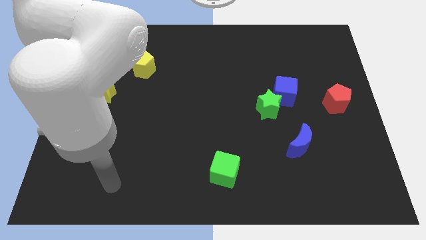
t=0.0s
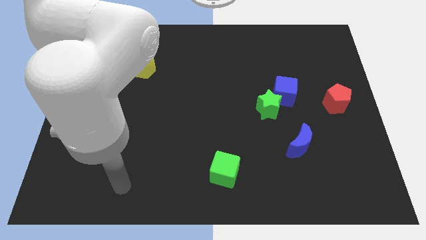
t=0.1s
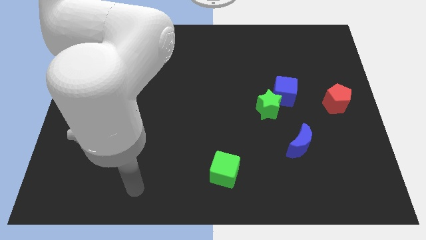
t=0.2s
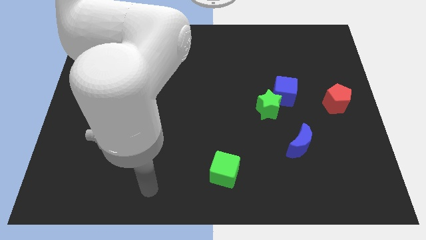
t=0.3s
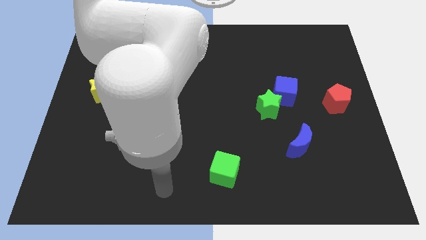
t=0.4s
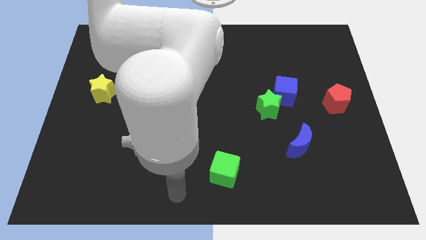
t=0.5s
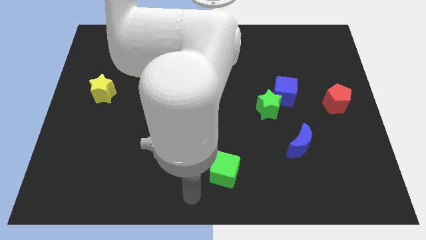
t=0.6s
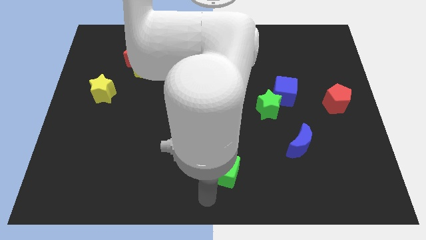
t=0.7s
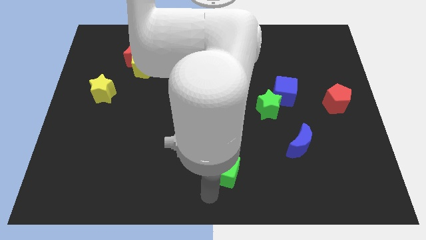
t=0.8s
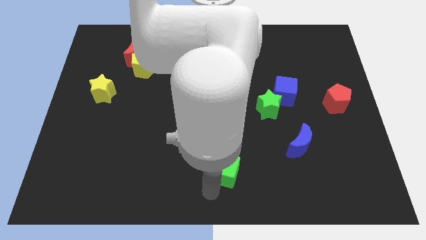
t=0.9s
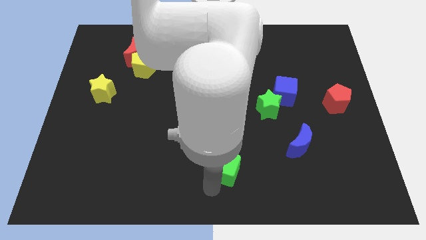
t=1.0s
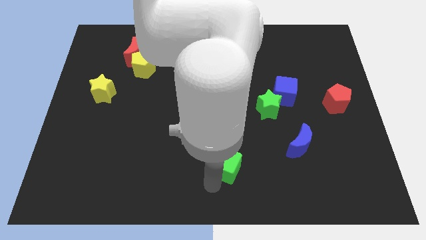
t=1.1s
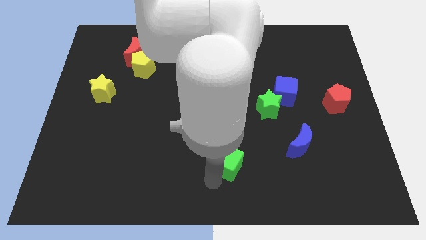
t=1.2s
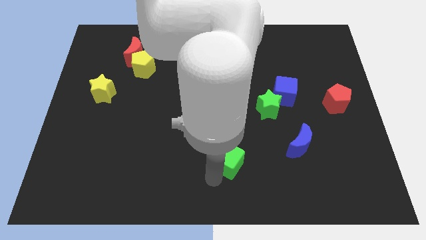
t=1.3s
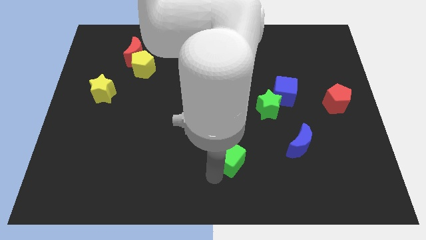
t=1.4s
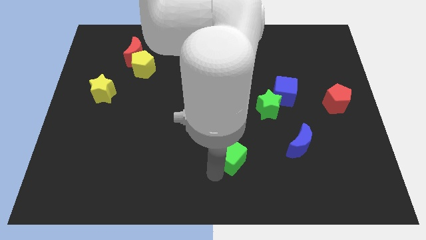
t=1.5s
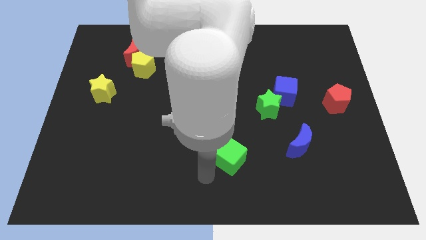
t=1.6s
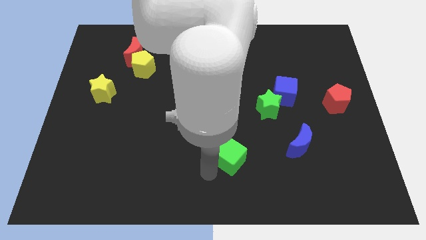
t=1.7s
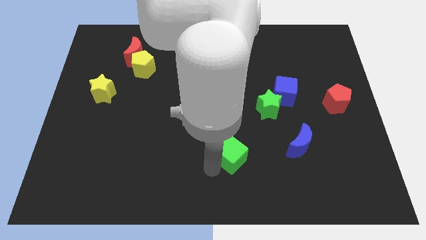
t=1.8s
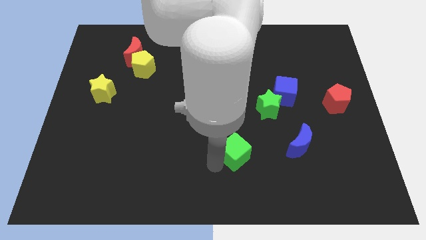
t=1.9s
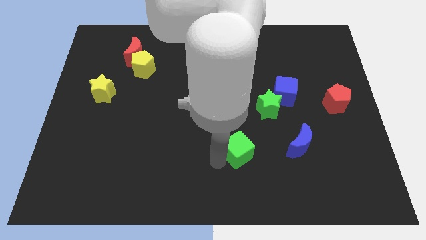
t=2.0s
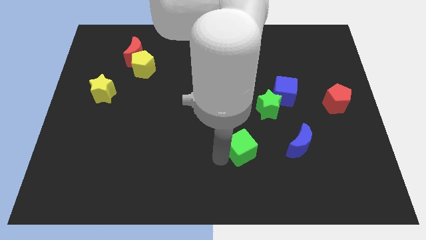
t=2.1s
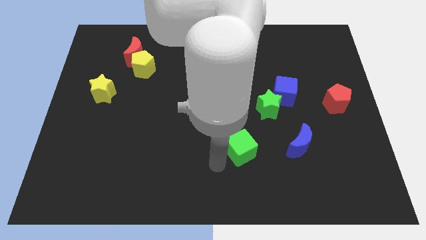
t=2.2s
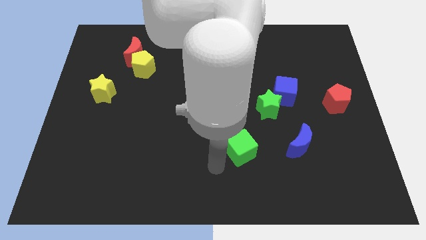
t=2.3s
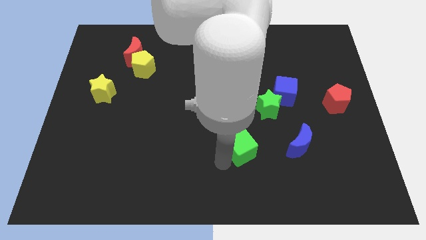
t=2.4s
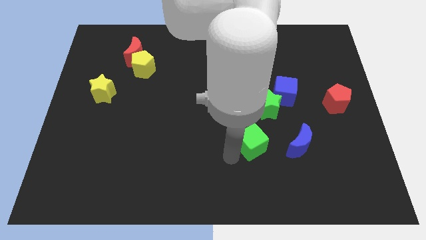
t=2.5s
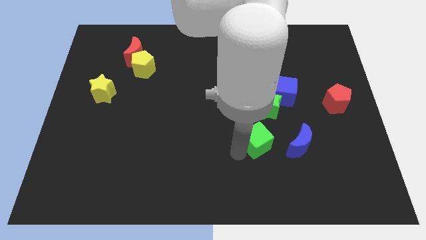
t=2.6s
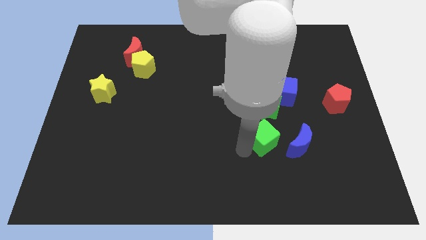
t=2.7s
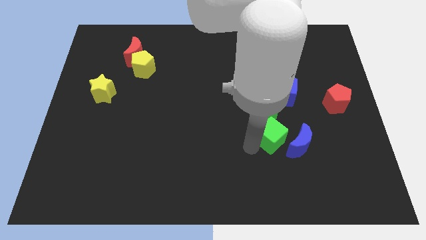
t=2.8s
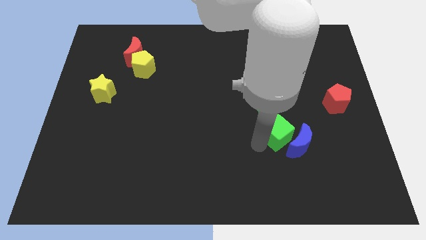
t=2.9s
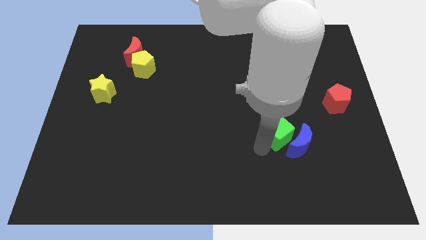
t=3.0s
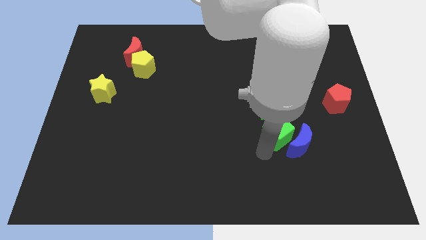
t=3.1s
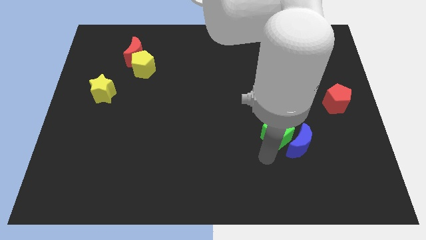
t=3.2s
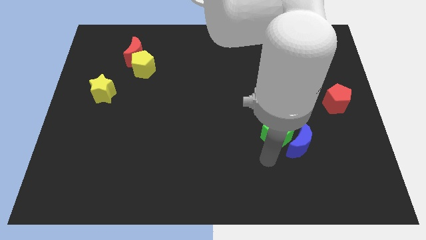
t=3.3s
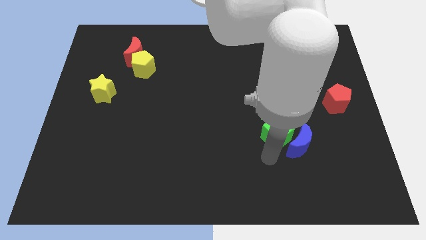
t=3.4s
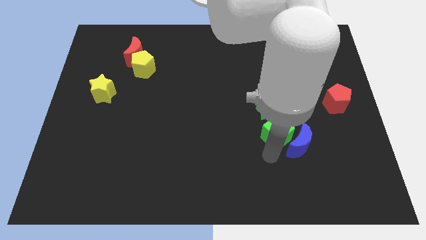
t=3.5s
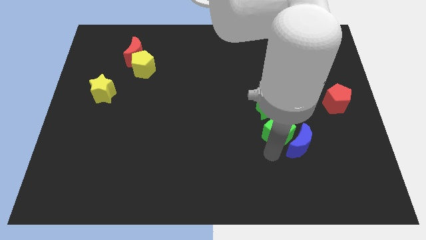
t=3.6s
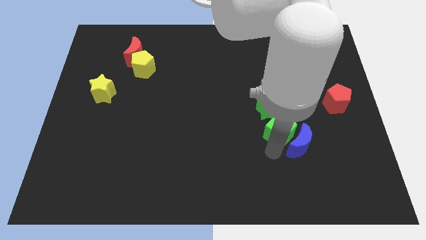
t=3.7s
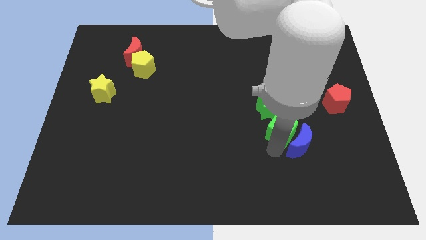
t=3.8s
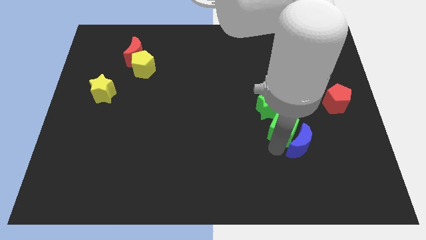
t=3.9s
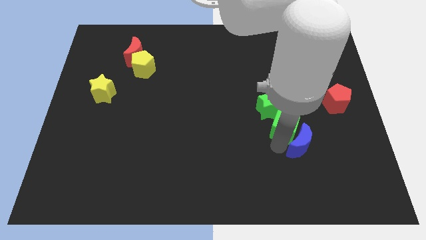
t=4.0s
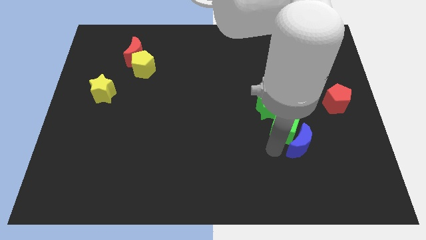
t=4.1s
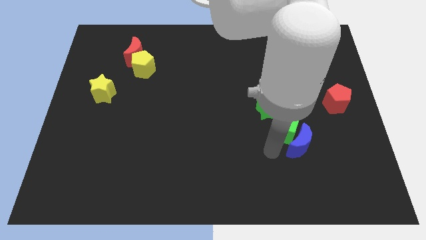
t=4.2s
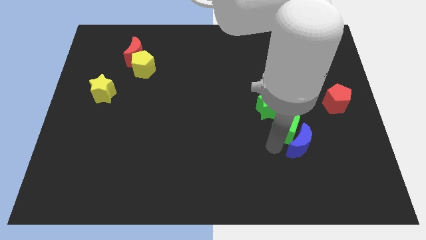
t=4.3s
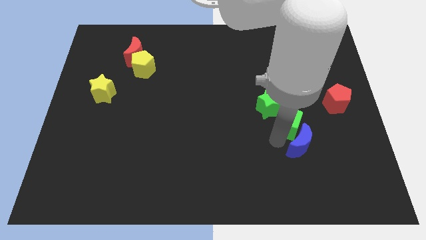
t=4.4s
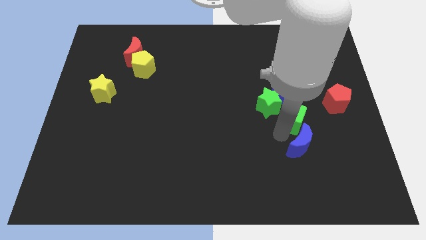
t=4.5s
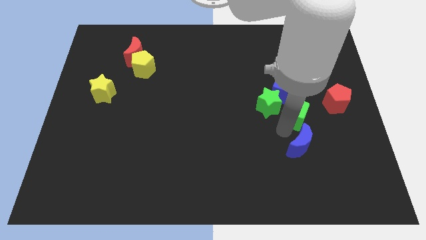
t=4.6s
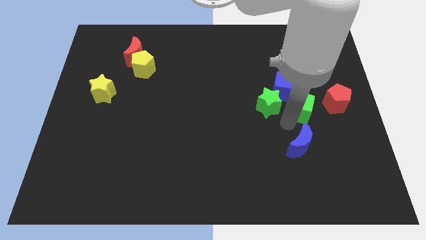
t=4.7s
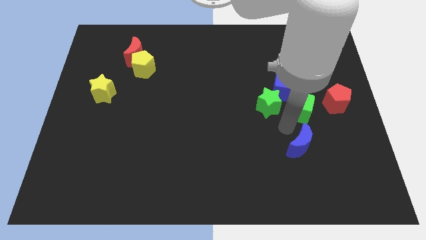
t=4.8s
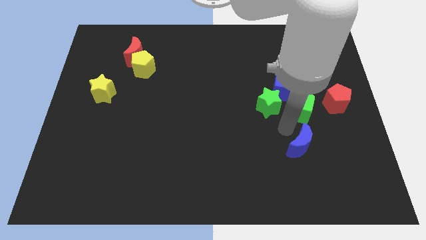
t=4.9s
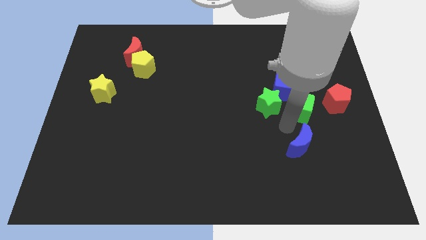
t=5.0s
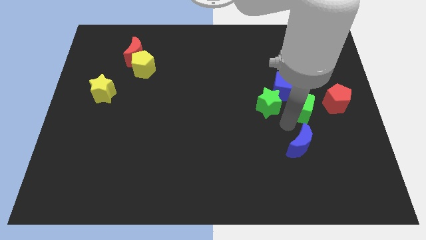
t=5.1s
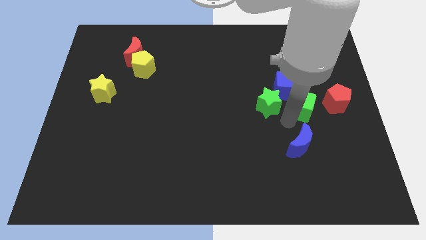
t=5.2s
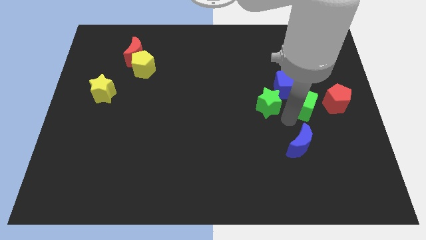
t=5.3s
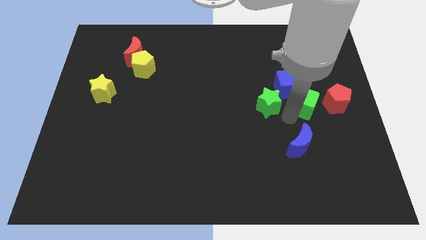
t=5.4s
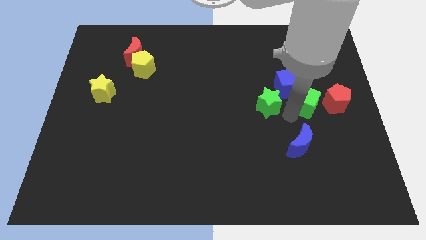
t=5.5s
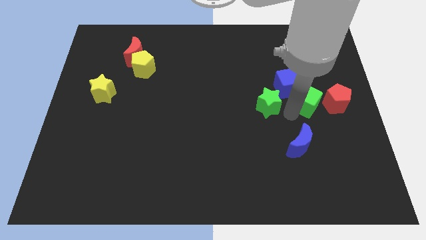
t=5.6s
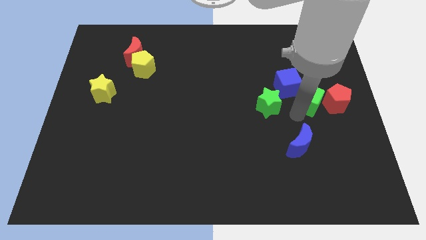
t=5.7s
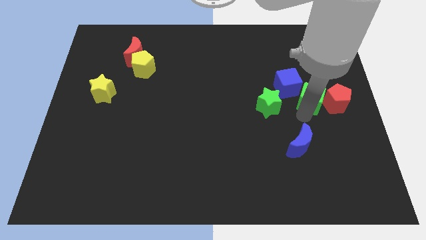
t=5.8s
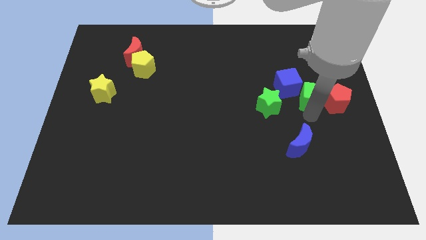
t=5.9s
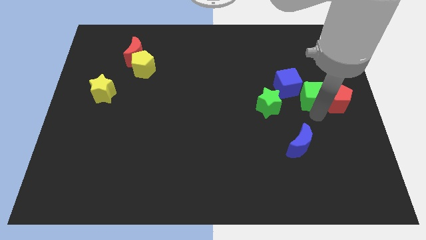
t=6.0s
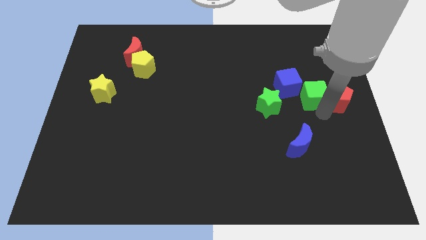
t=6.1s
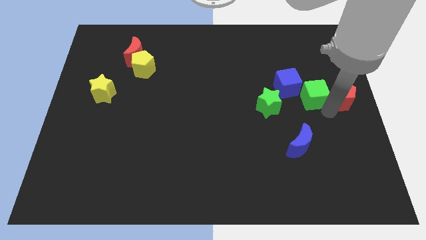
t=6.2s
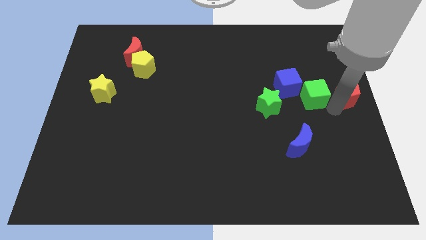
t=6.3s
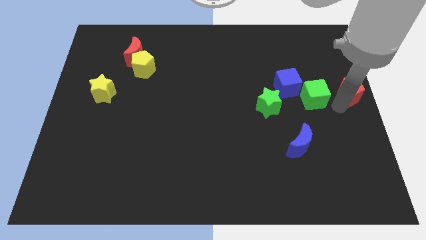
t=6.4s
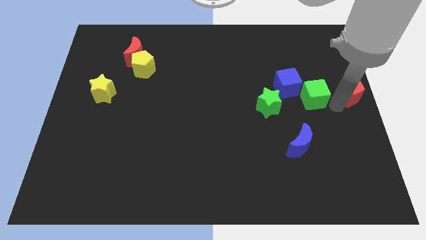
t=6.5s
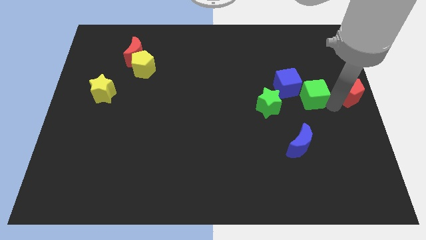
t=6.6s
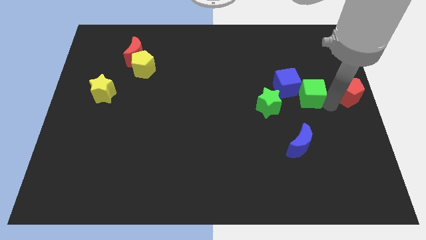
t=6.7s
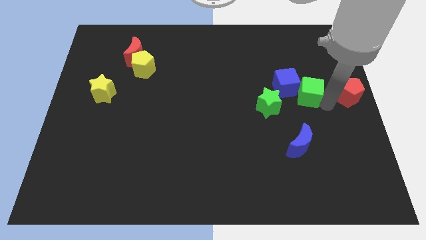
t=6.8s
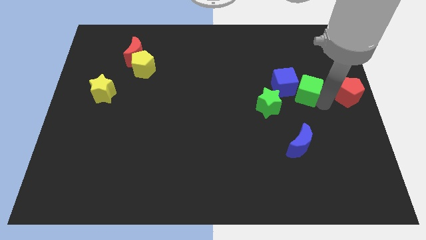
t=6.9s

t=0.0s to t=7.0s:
move the green cube diagonally up and to the right of the green star
